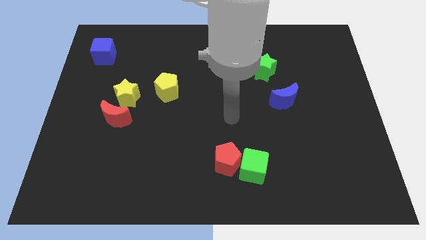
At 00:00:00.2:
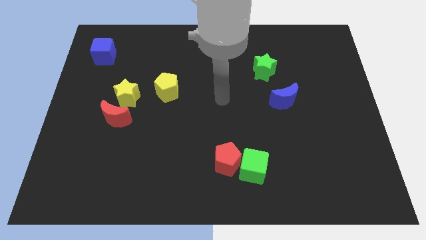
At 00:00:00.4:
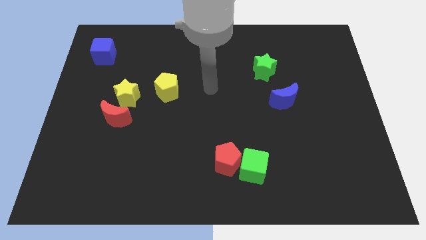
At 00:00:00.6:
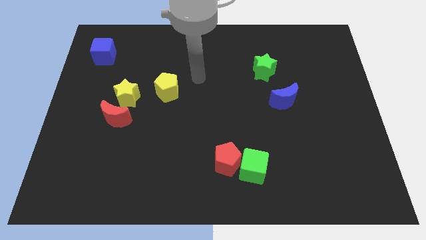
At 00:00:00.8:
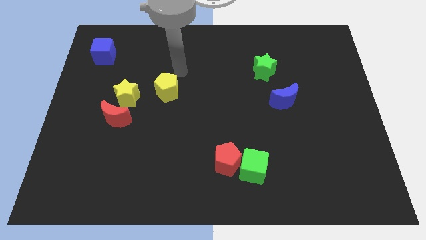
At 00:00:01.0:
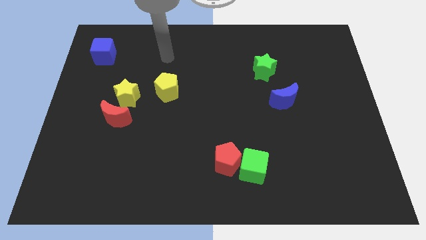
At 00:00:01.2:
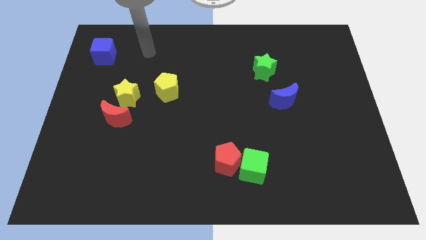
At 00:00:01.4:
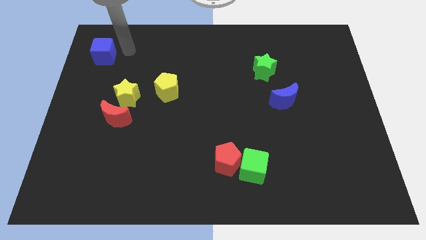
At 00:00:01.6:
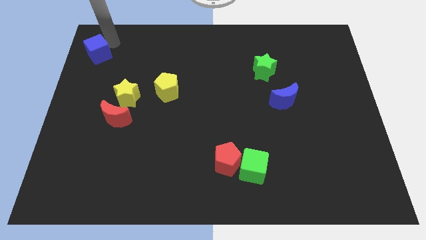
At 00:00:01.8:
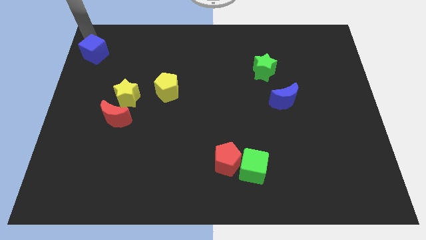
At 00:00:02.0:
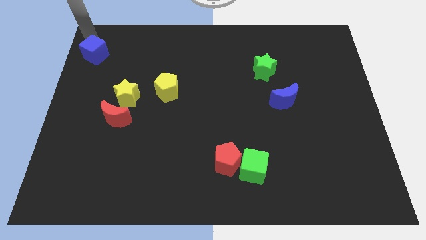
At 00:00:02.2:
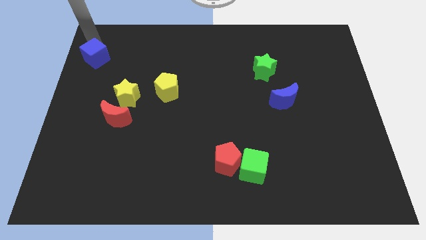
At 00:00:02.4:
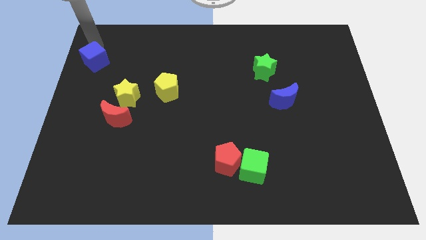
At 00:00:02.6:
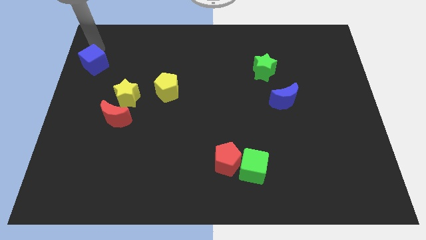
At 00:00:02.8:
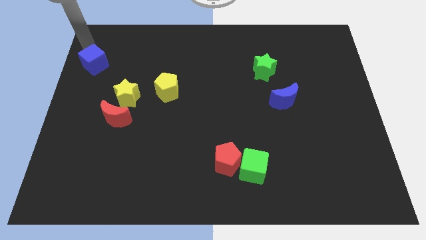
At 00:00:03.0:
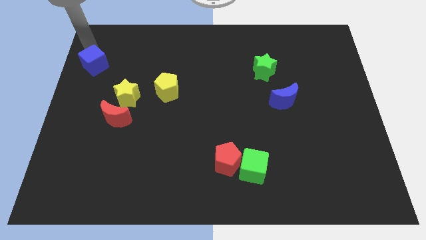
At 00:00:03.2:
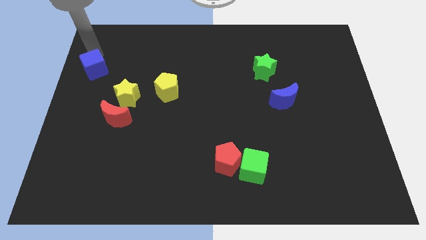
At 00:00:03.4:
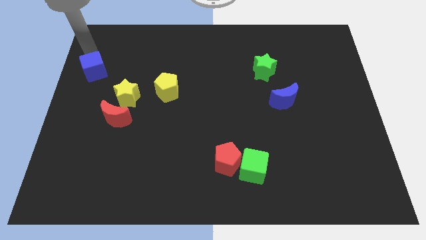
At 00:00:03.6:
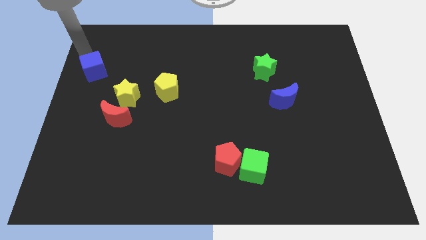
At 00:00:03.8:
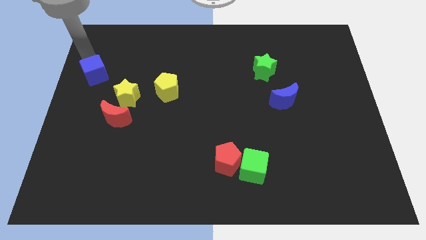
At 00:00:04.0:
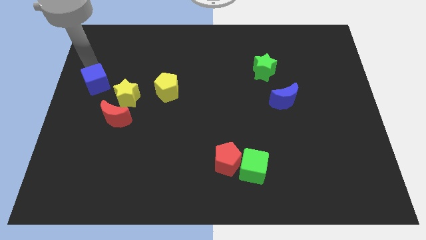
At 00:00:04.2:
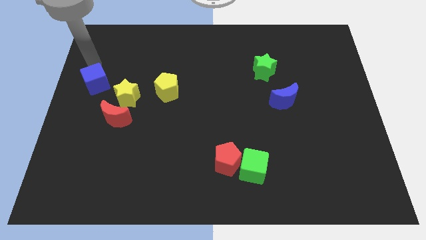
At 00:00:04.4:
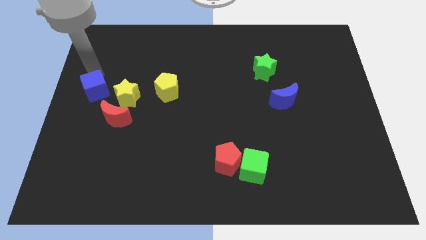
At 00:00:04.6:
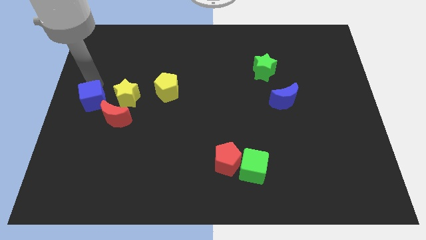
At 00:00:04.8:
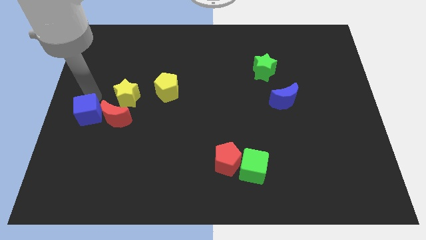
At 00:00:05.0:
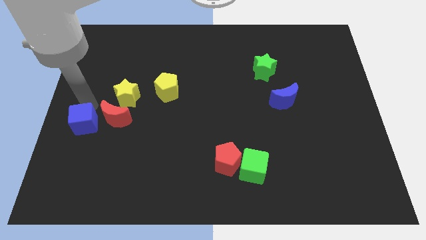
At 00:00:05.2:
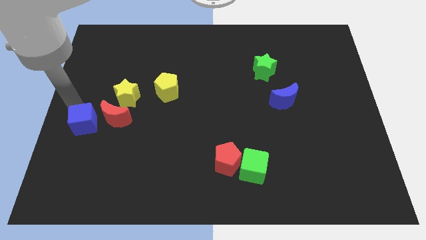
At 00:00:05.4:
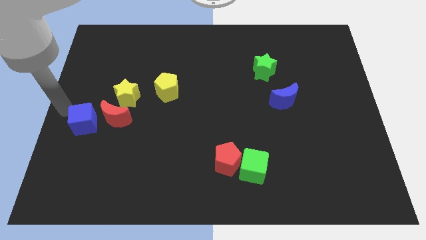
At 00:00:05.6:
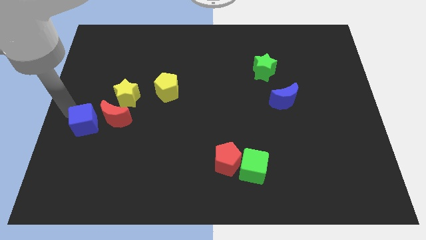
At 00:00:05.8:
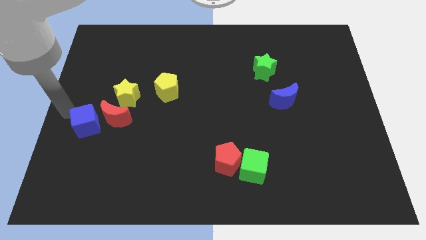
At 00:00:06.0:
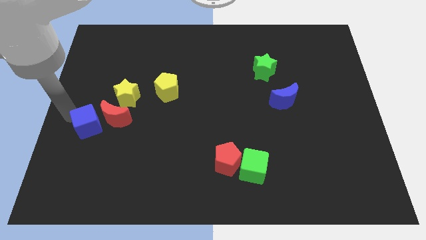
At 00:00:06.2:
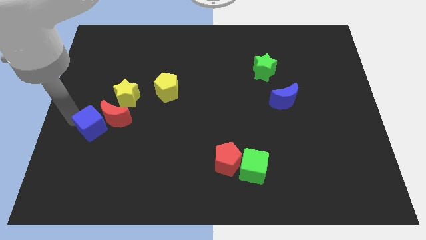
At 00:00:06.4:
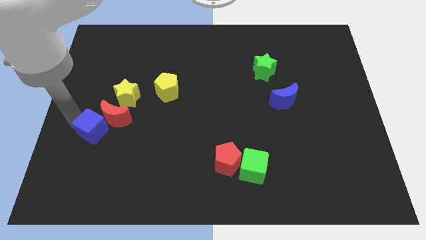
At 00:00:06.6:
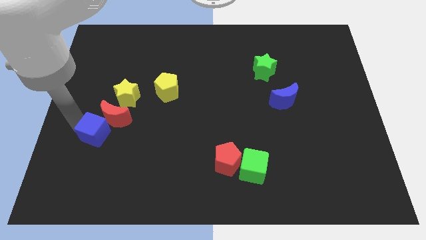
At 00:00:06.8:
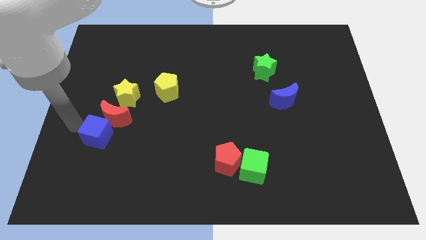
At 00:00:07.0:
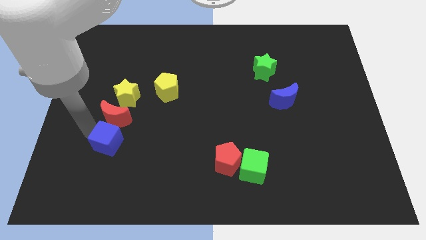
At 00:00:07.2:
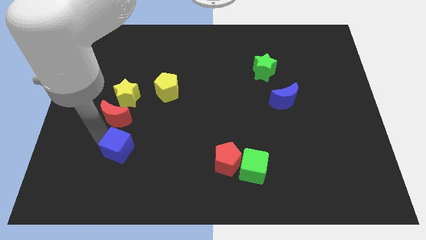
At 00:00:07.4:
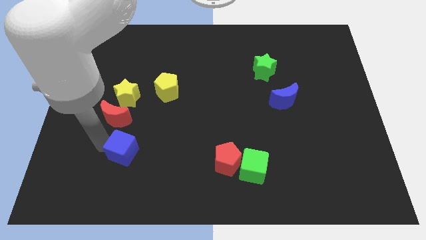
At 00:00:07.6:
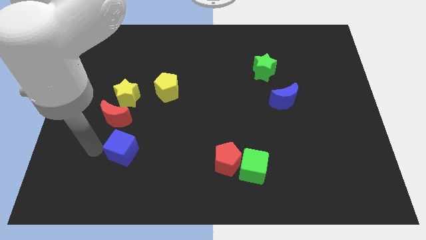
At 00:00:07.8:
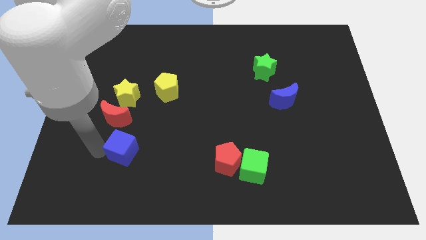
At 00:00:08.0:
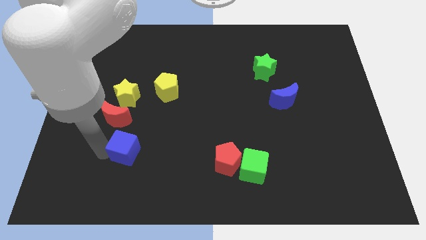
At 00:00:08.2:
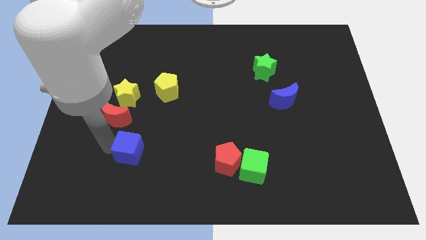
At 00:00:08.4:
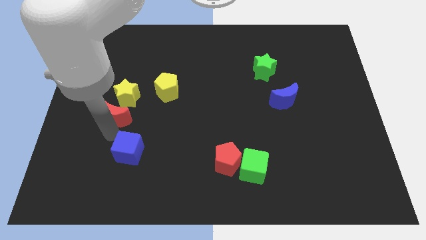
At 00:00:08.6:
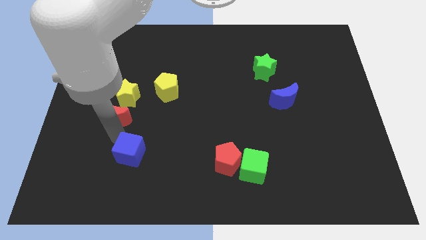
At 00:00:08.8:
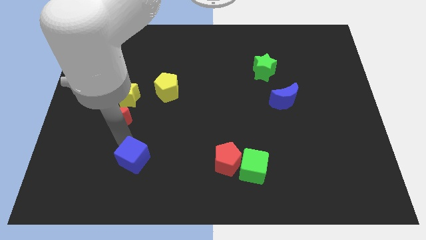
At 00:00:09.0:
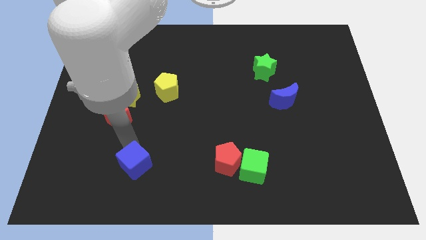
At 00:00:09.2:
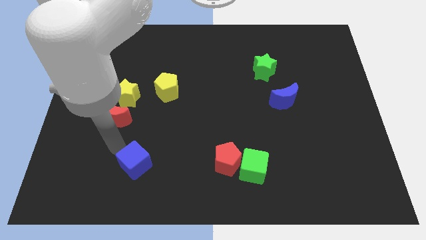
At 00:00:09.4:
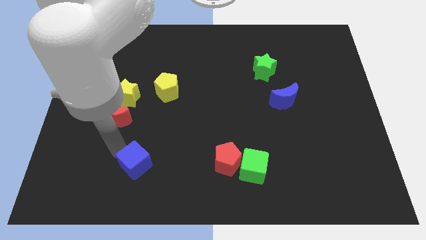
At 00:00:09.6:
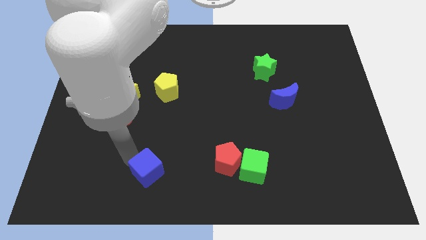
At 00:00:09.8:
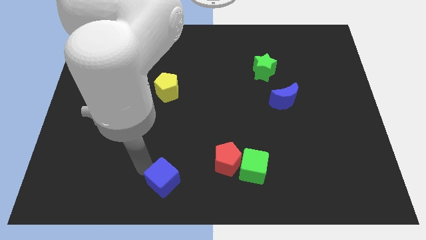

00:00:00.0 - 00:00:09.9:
slide the blue cube to the bottom side

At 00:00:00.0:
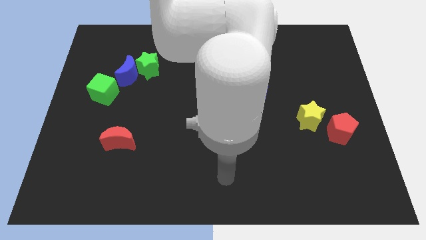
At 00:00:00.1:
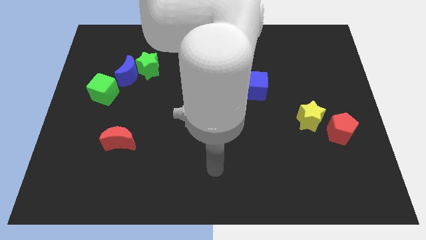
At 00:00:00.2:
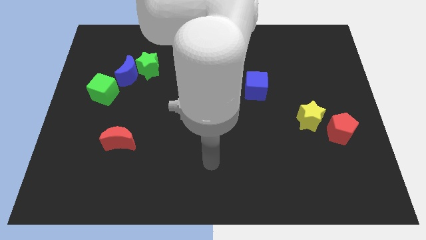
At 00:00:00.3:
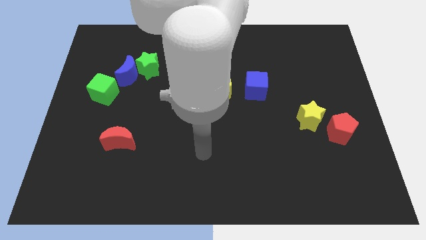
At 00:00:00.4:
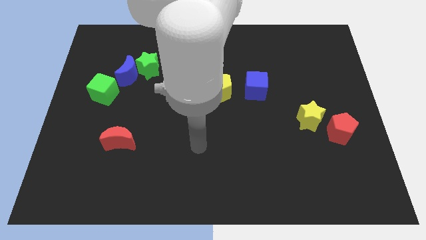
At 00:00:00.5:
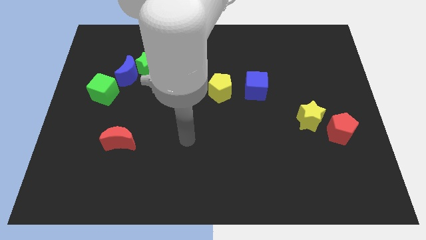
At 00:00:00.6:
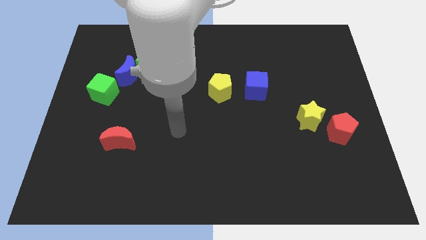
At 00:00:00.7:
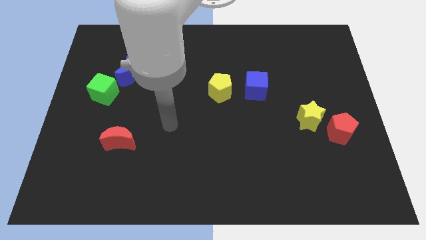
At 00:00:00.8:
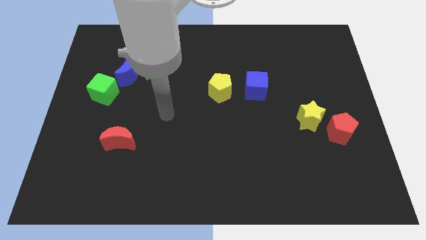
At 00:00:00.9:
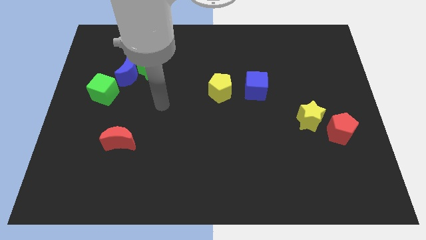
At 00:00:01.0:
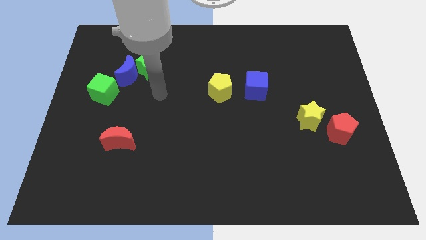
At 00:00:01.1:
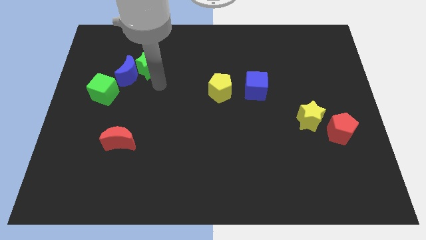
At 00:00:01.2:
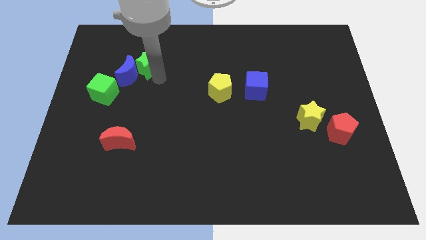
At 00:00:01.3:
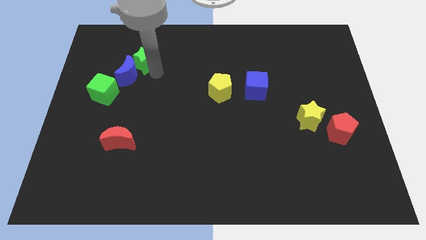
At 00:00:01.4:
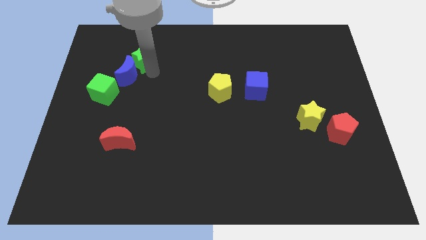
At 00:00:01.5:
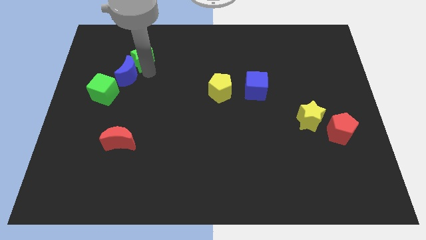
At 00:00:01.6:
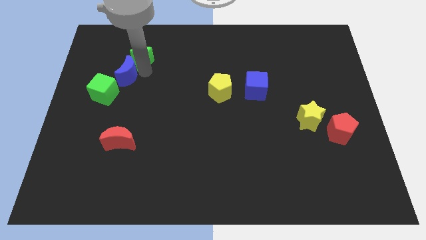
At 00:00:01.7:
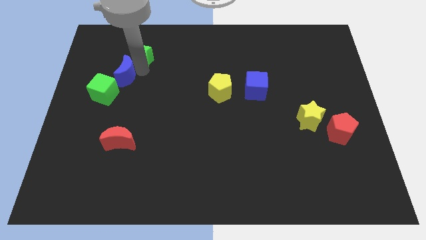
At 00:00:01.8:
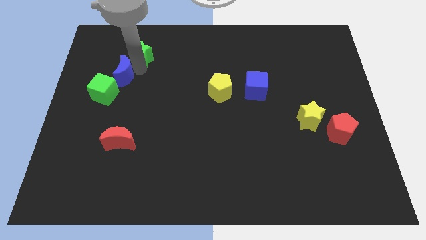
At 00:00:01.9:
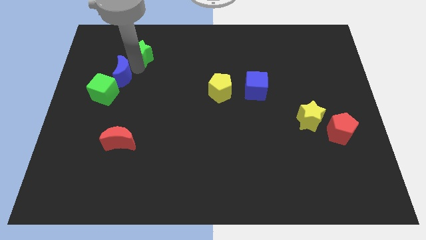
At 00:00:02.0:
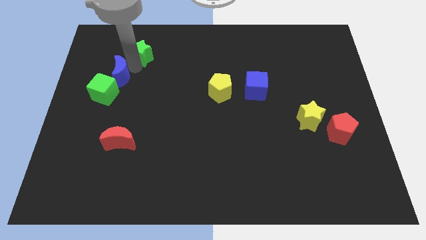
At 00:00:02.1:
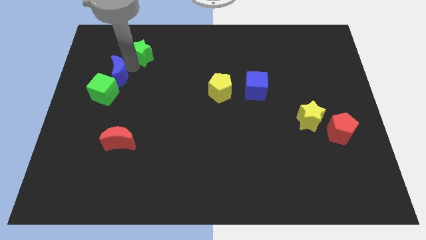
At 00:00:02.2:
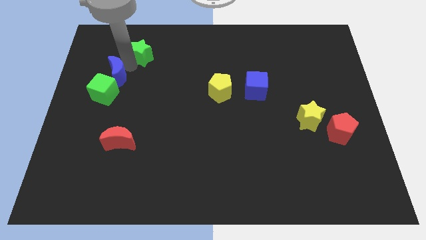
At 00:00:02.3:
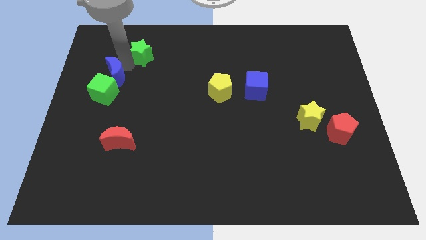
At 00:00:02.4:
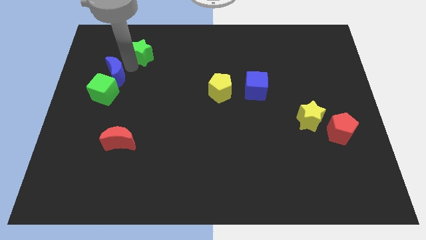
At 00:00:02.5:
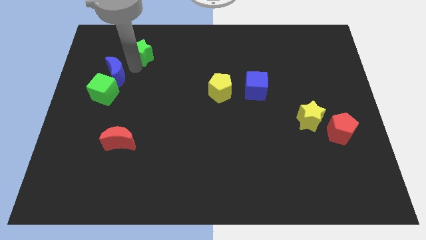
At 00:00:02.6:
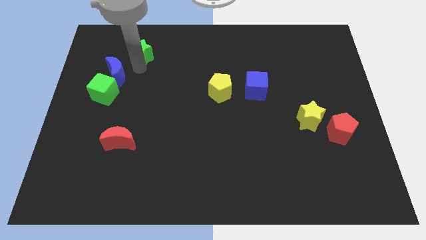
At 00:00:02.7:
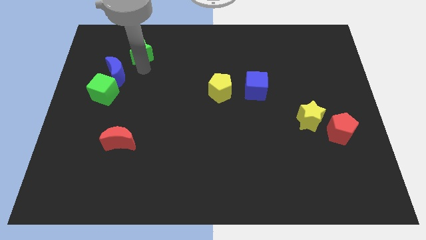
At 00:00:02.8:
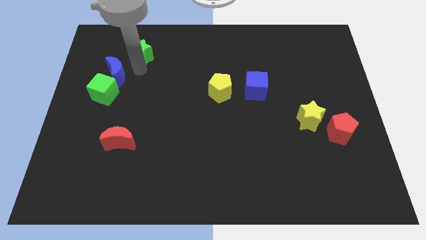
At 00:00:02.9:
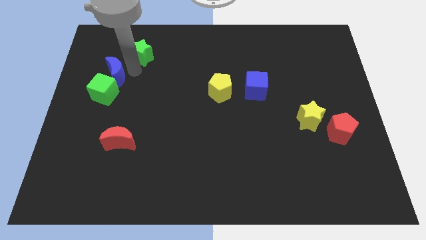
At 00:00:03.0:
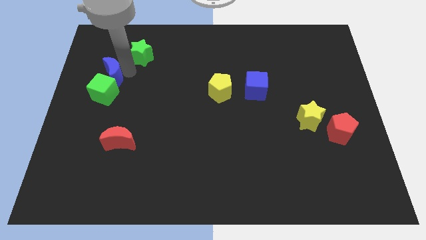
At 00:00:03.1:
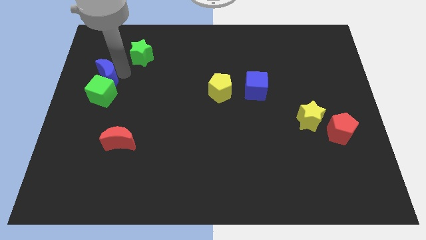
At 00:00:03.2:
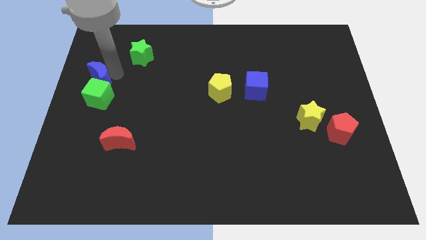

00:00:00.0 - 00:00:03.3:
put the blue moon to the left side of the board
